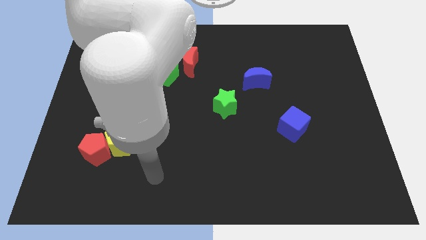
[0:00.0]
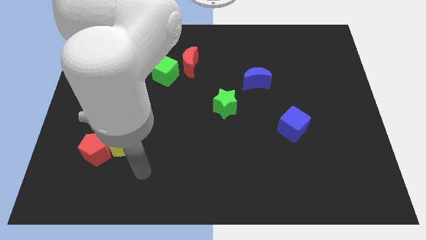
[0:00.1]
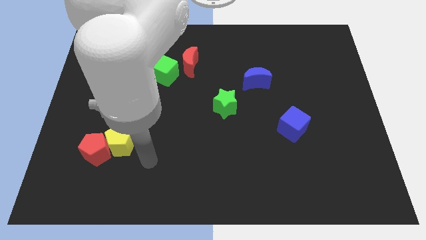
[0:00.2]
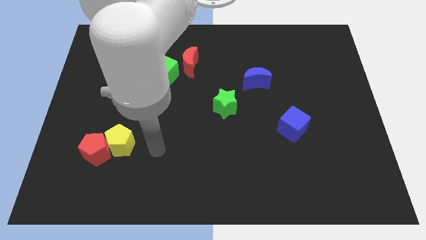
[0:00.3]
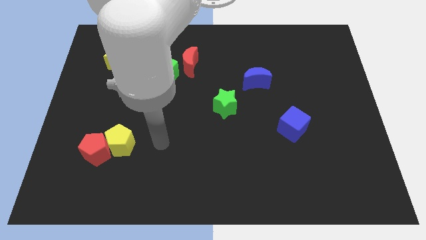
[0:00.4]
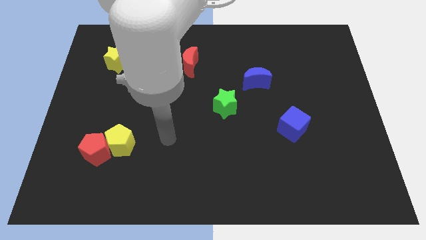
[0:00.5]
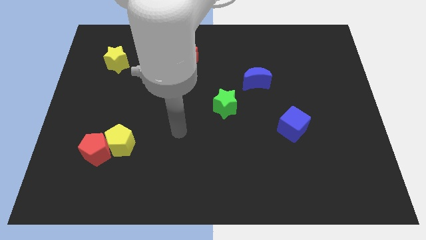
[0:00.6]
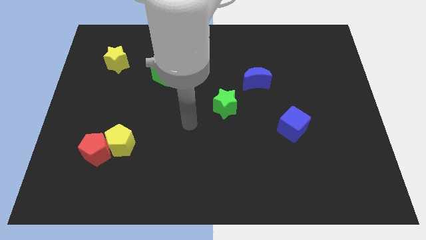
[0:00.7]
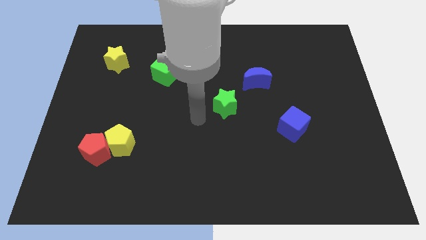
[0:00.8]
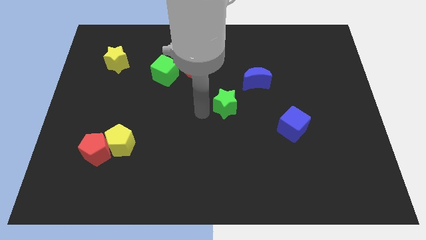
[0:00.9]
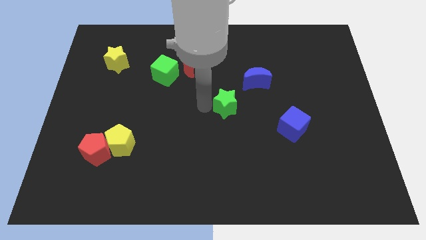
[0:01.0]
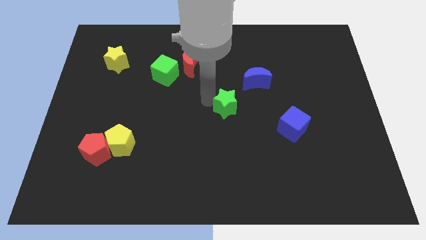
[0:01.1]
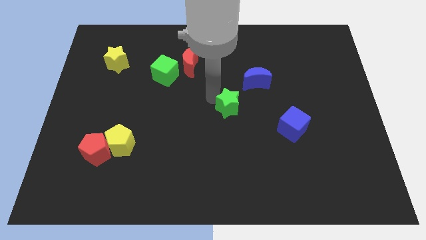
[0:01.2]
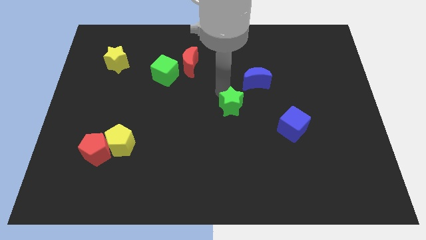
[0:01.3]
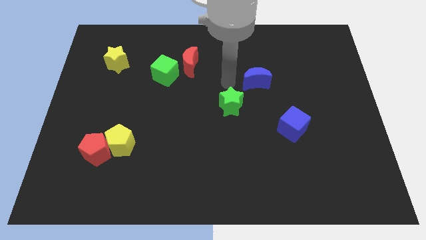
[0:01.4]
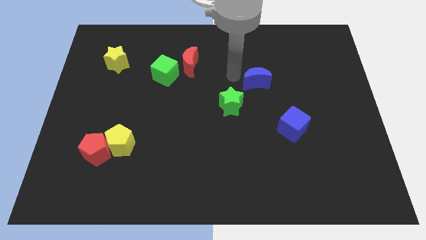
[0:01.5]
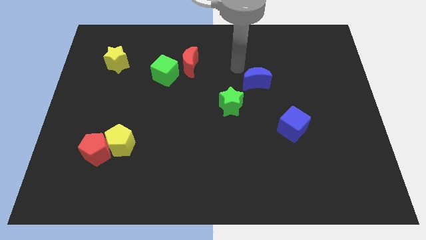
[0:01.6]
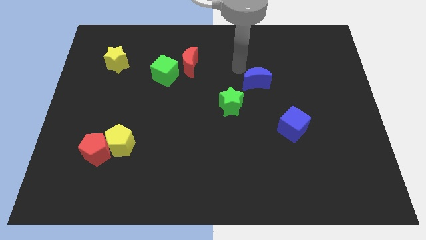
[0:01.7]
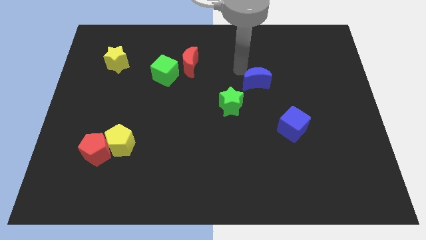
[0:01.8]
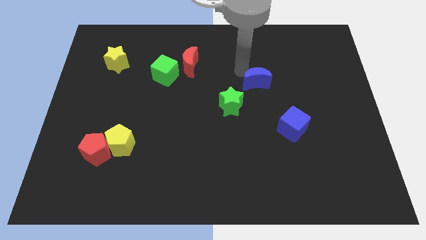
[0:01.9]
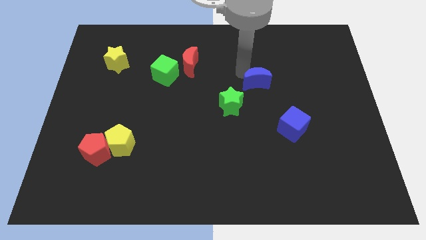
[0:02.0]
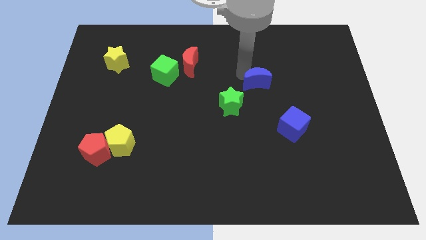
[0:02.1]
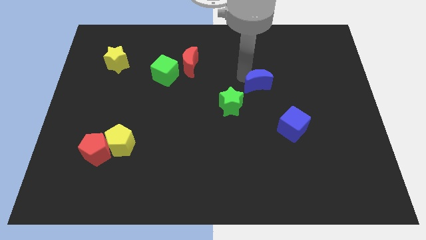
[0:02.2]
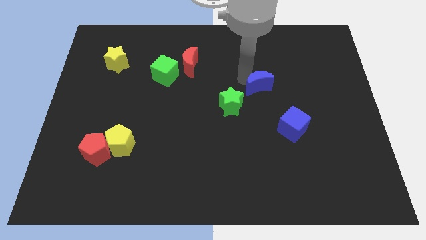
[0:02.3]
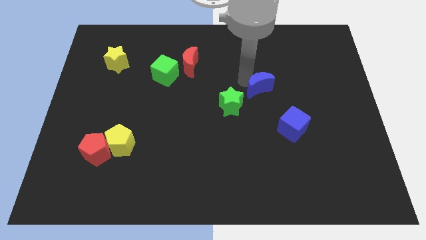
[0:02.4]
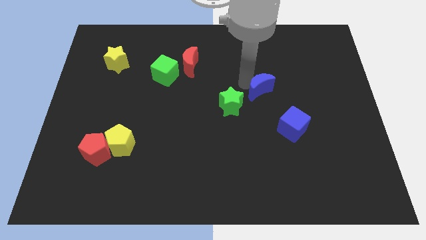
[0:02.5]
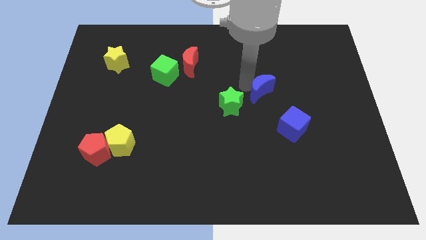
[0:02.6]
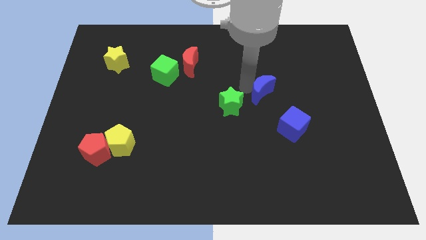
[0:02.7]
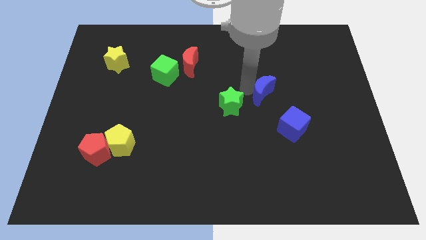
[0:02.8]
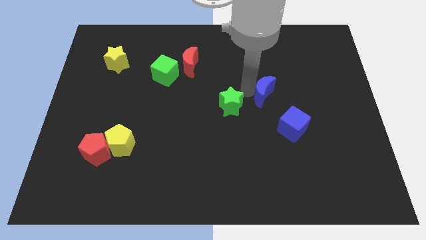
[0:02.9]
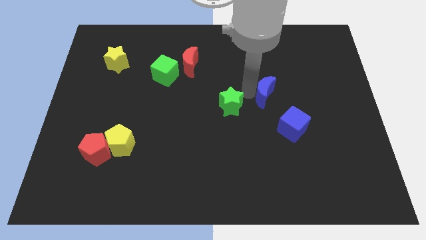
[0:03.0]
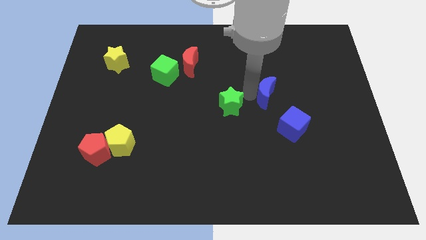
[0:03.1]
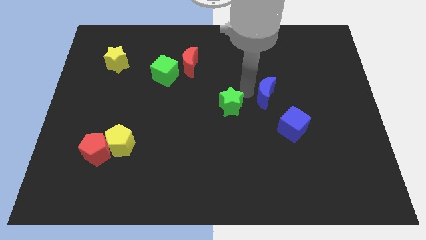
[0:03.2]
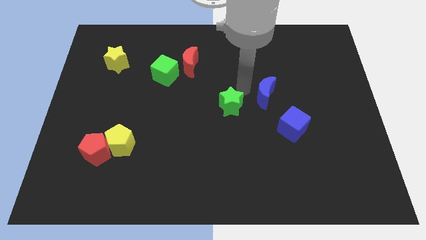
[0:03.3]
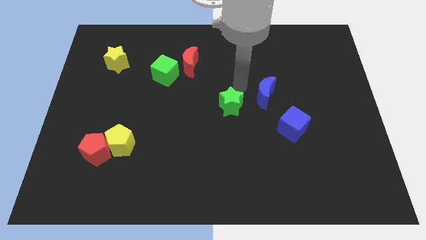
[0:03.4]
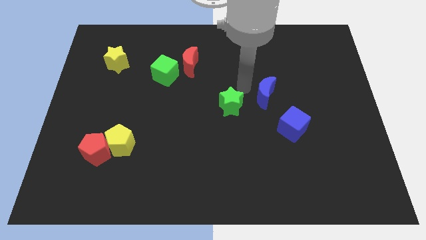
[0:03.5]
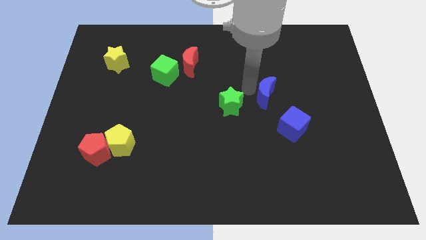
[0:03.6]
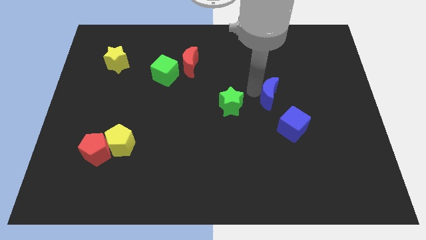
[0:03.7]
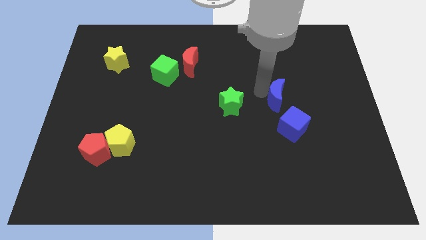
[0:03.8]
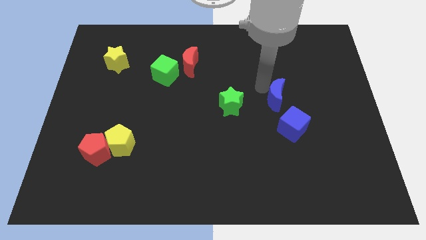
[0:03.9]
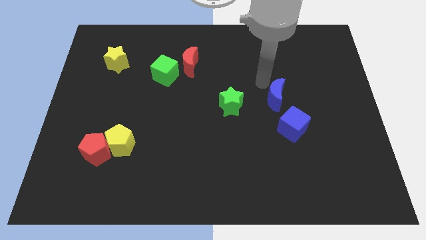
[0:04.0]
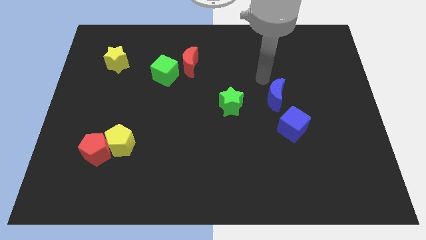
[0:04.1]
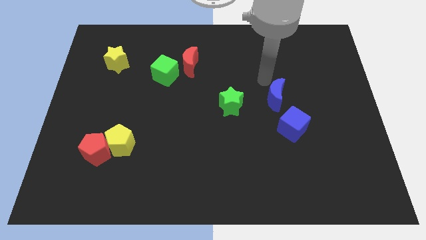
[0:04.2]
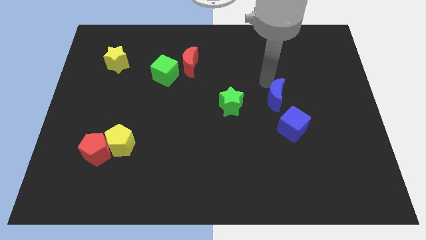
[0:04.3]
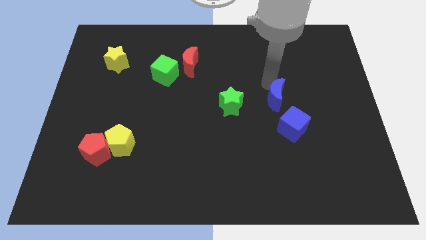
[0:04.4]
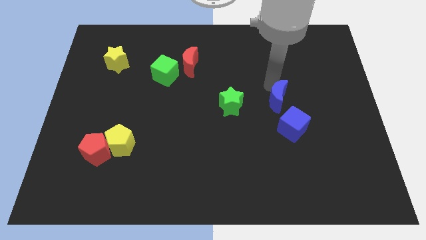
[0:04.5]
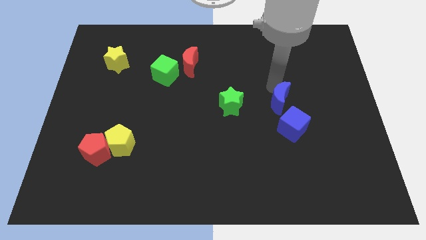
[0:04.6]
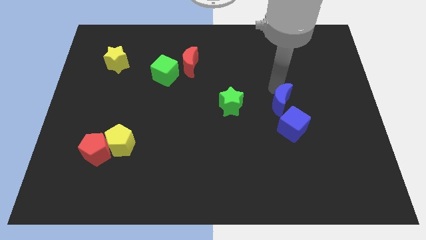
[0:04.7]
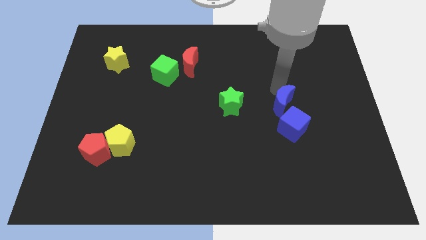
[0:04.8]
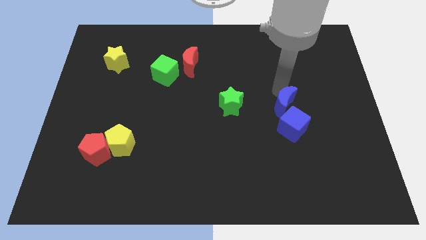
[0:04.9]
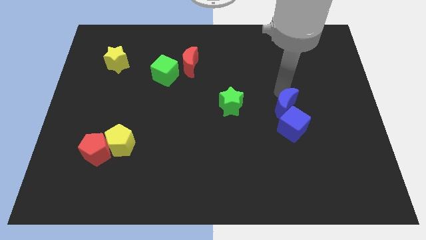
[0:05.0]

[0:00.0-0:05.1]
put the blue moon next to the blue cube

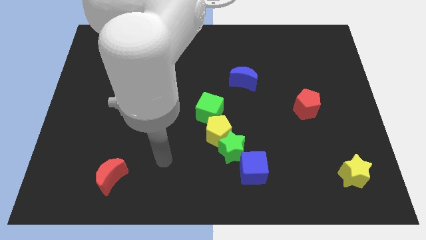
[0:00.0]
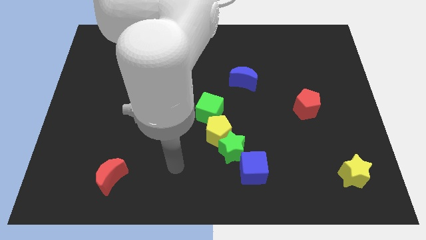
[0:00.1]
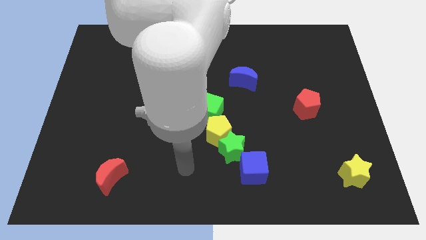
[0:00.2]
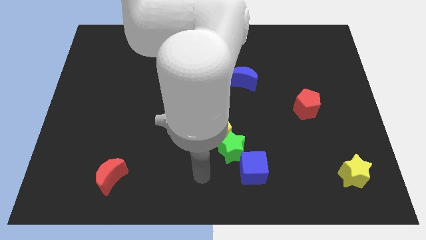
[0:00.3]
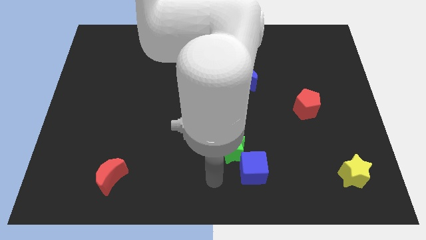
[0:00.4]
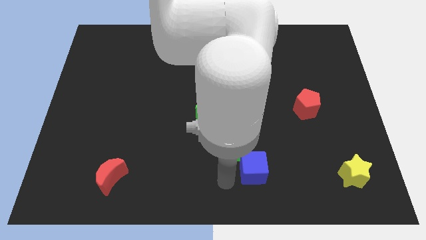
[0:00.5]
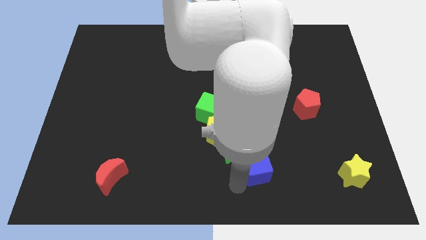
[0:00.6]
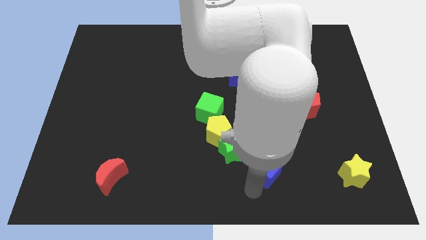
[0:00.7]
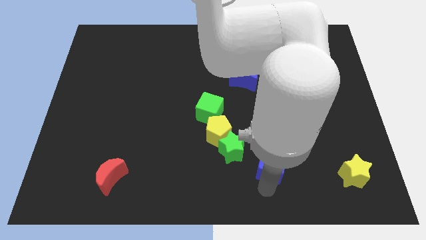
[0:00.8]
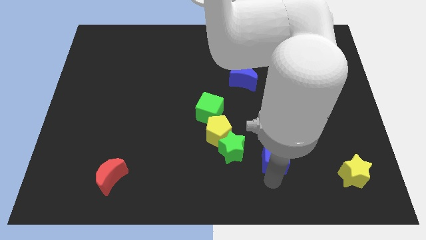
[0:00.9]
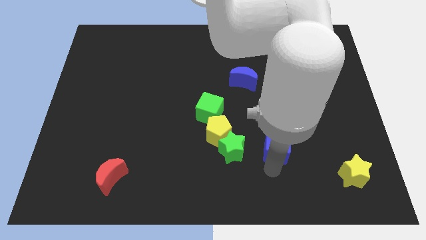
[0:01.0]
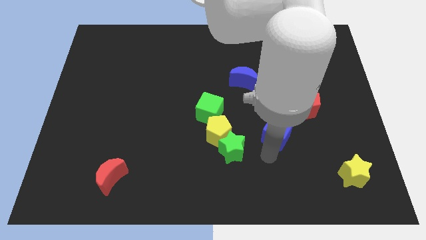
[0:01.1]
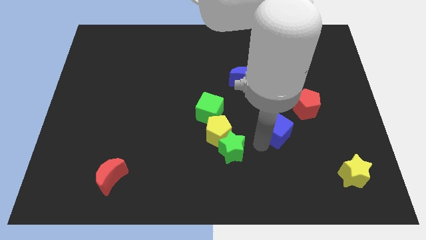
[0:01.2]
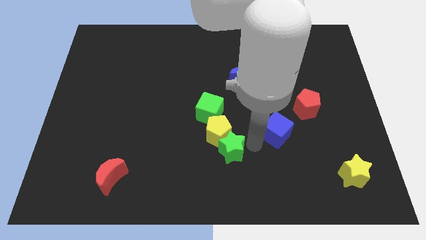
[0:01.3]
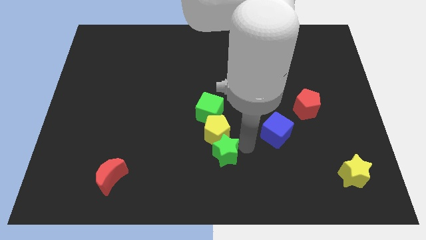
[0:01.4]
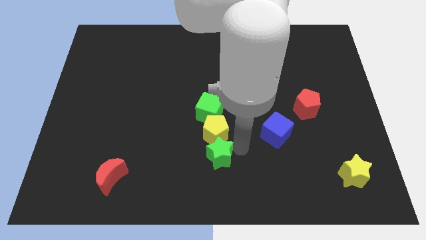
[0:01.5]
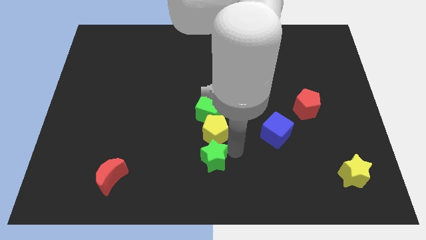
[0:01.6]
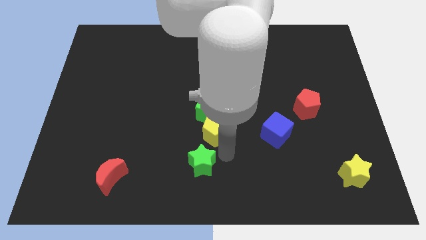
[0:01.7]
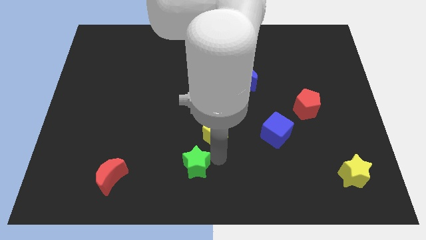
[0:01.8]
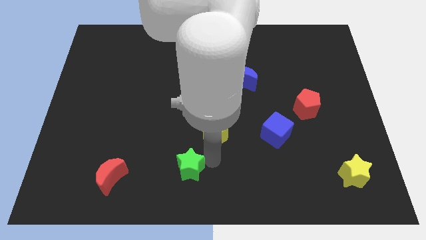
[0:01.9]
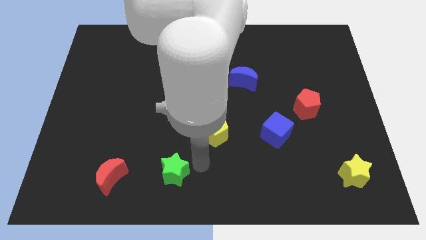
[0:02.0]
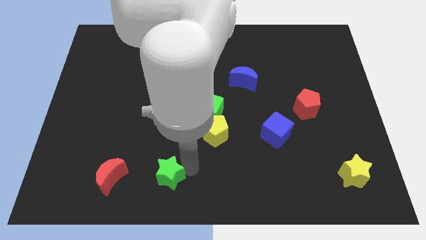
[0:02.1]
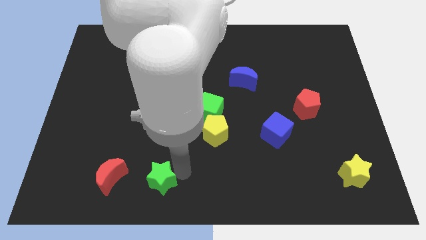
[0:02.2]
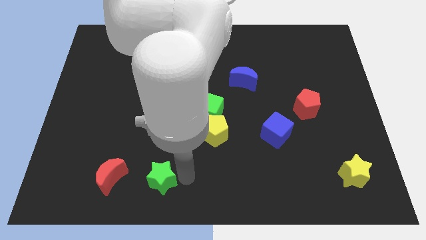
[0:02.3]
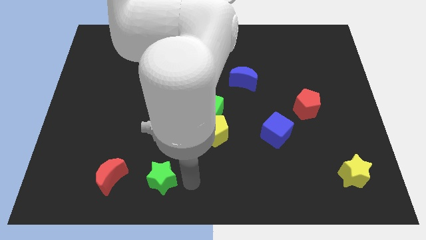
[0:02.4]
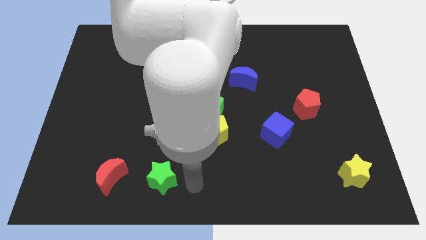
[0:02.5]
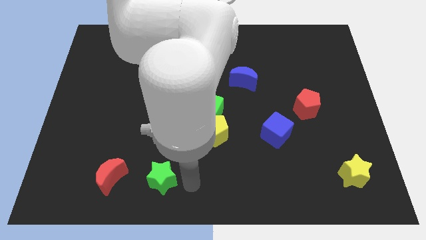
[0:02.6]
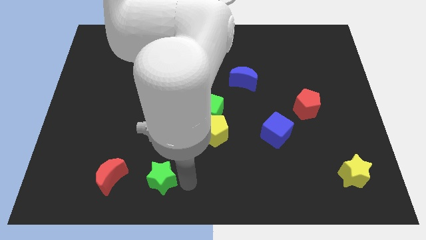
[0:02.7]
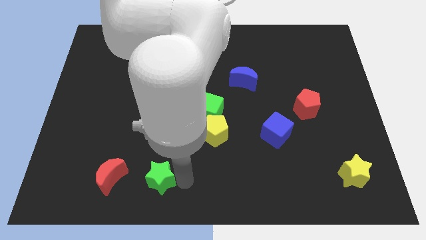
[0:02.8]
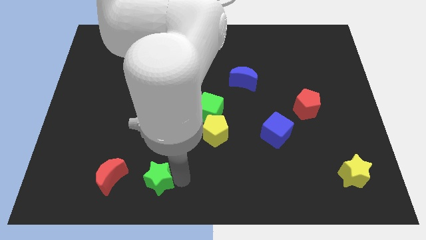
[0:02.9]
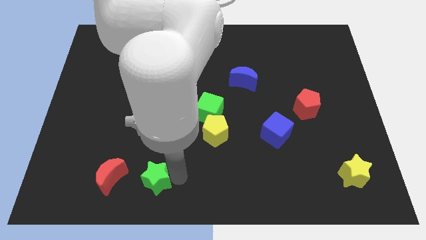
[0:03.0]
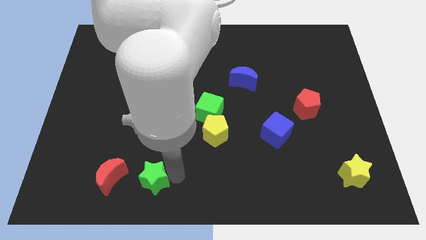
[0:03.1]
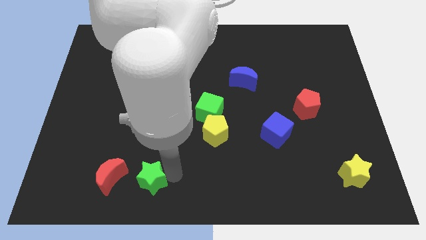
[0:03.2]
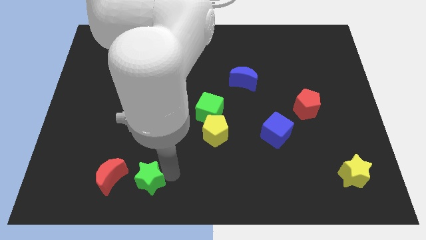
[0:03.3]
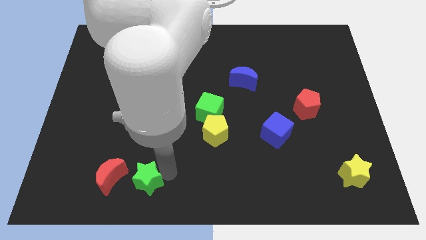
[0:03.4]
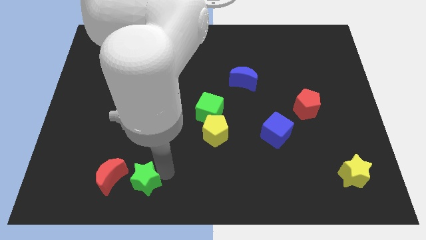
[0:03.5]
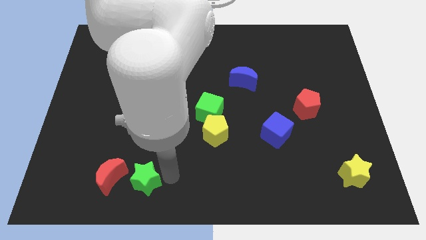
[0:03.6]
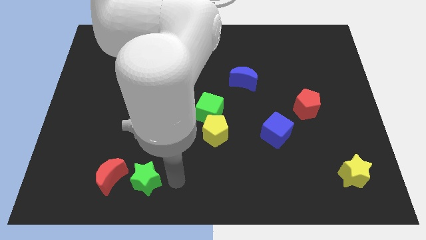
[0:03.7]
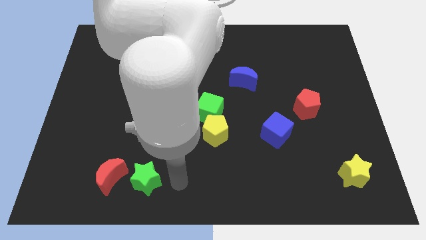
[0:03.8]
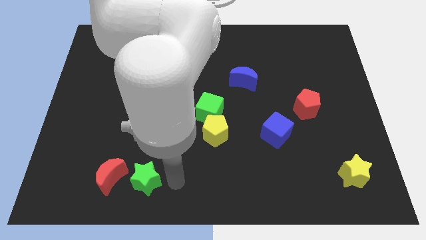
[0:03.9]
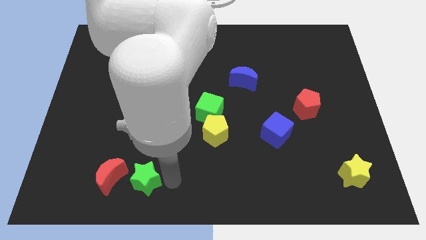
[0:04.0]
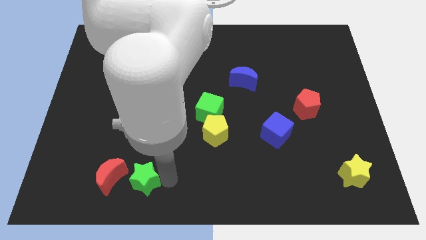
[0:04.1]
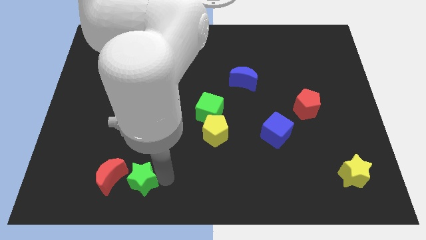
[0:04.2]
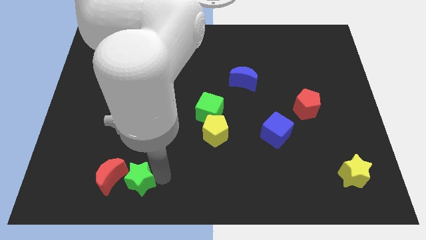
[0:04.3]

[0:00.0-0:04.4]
slide the green star next to the red moon
